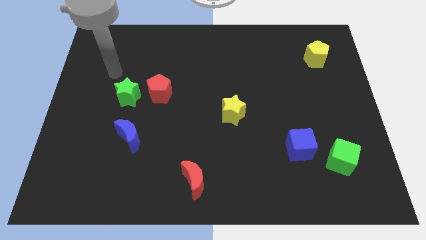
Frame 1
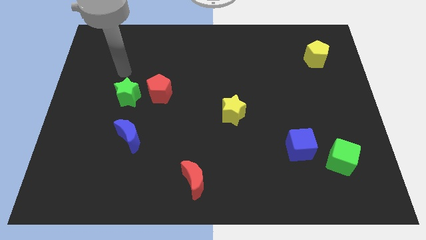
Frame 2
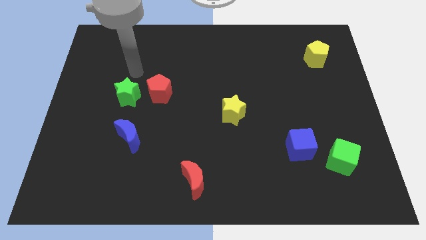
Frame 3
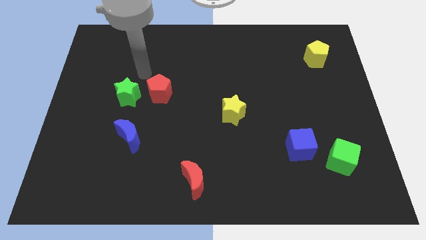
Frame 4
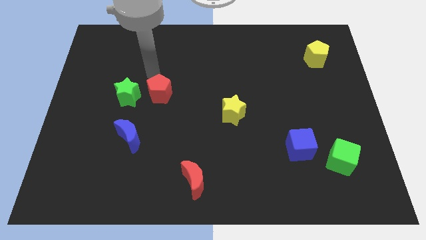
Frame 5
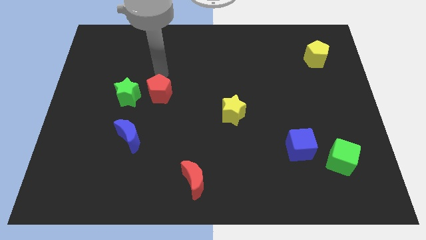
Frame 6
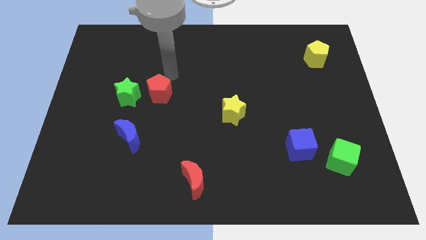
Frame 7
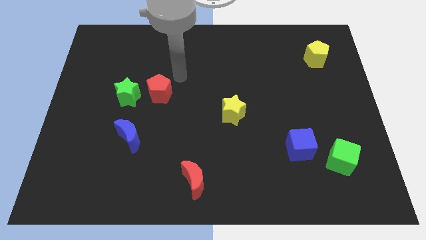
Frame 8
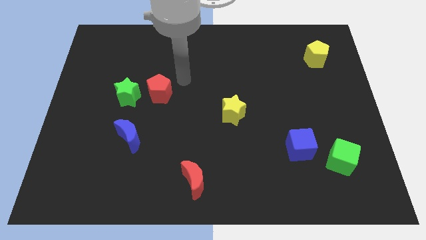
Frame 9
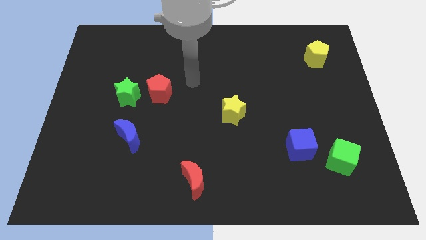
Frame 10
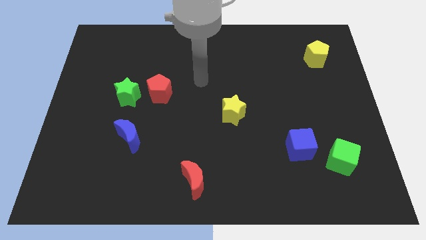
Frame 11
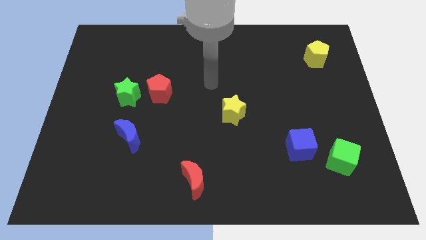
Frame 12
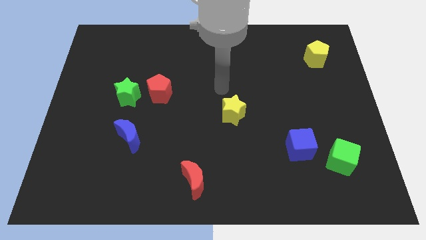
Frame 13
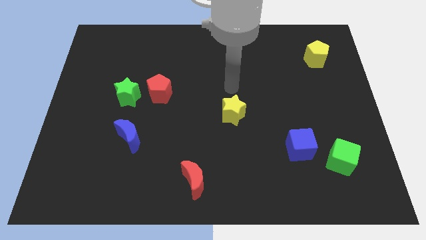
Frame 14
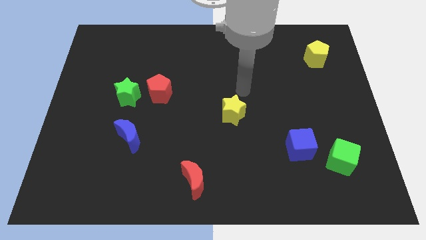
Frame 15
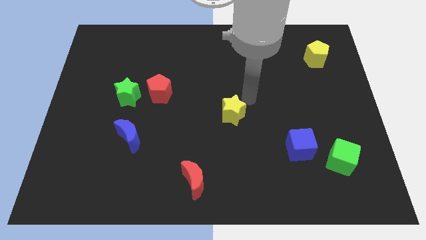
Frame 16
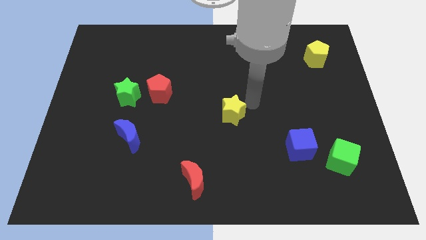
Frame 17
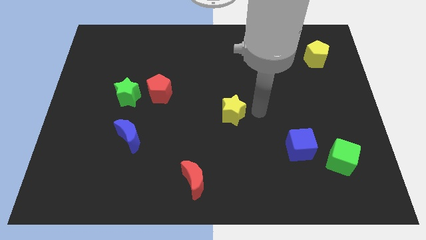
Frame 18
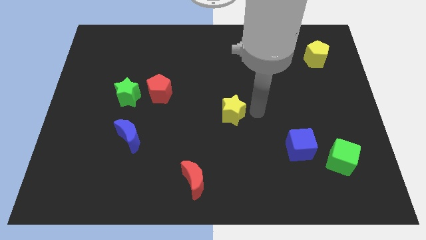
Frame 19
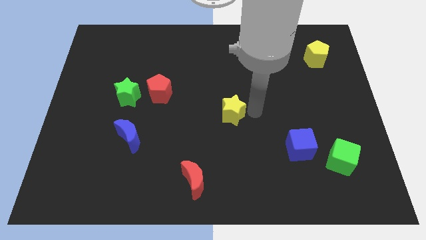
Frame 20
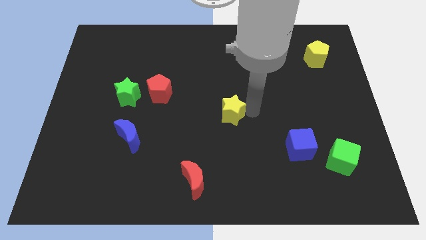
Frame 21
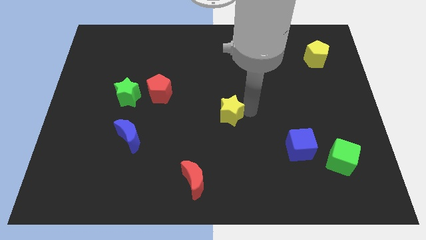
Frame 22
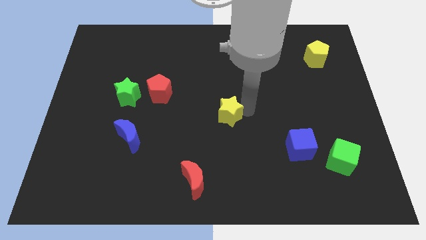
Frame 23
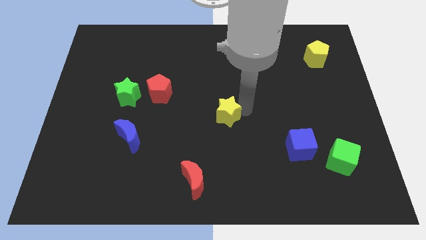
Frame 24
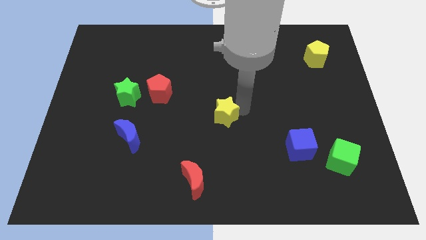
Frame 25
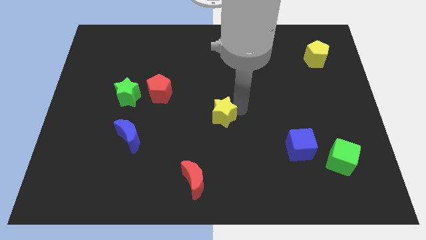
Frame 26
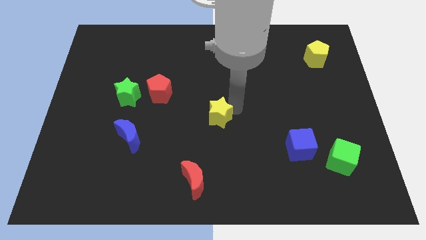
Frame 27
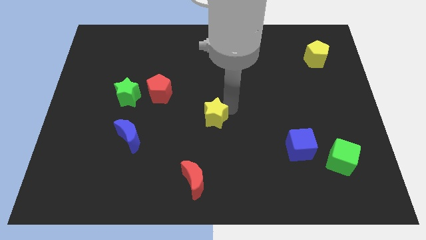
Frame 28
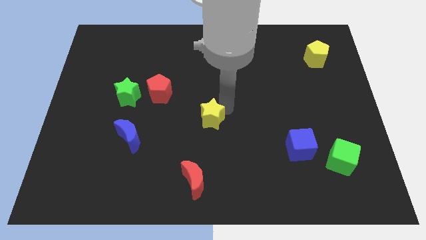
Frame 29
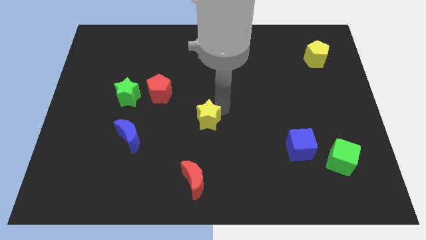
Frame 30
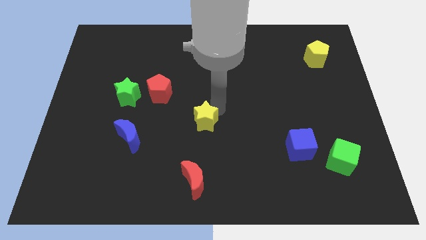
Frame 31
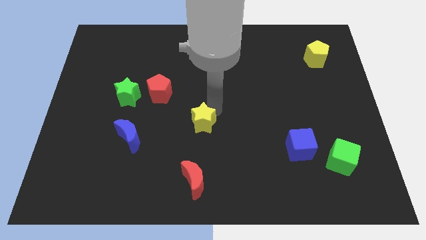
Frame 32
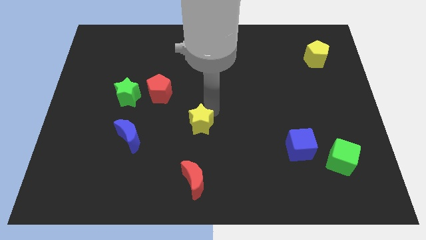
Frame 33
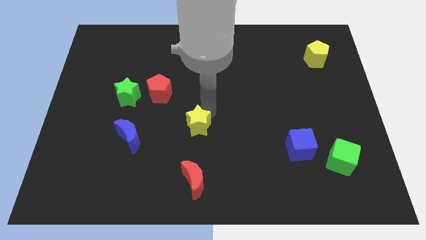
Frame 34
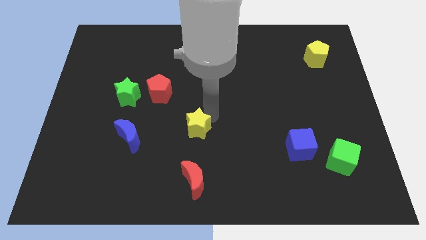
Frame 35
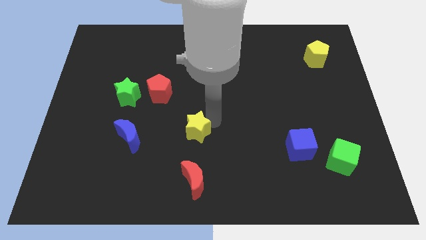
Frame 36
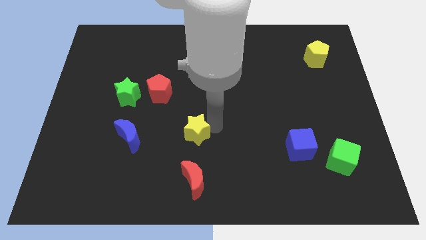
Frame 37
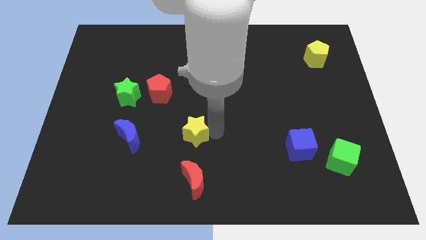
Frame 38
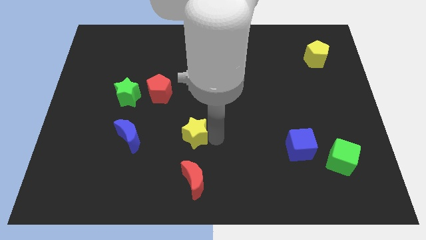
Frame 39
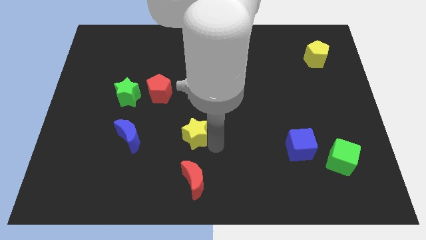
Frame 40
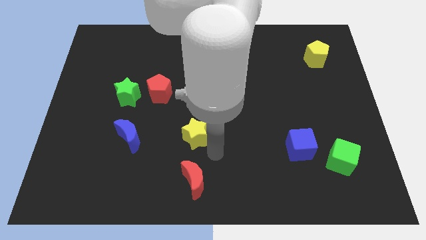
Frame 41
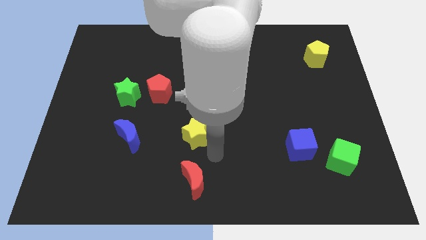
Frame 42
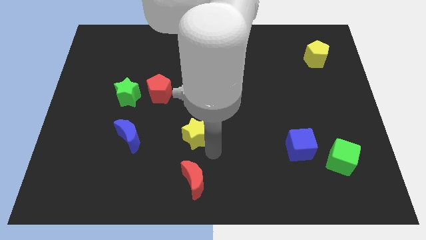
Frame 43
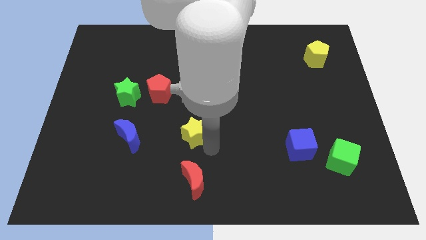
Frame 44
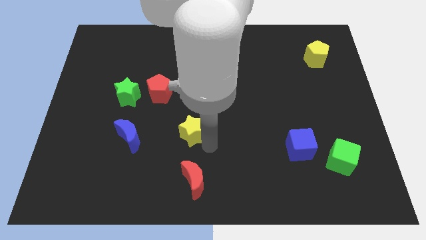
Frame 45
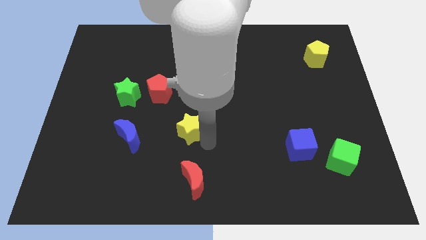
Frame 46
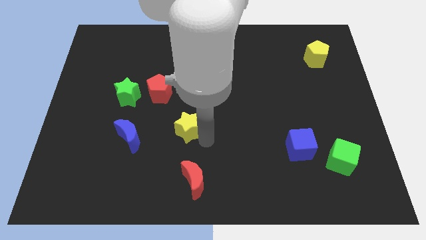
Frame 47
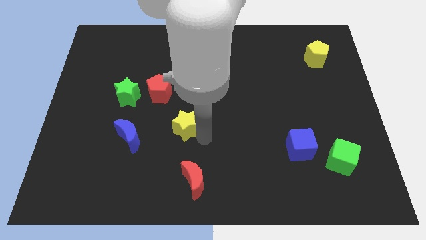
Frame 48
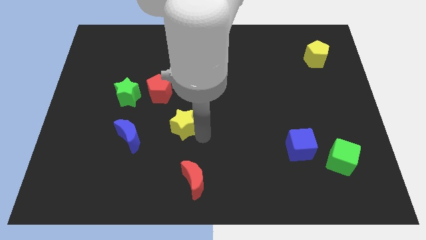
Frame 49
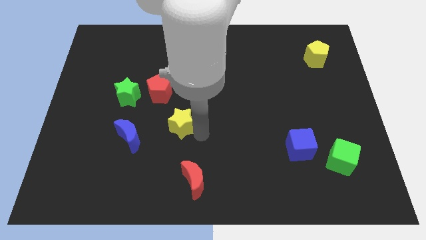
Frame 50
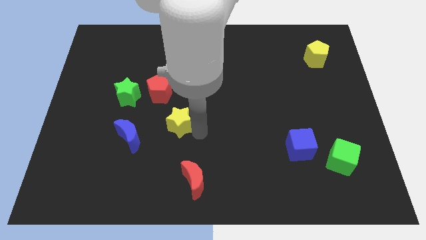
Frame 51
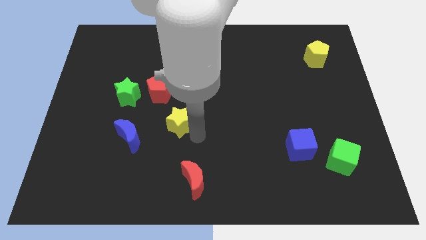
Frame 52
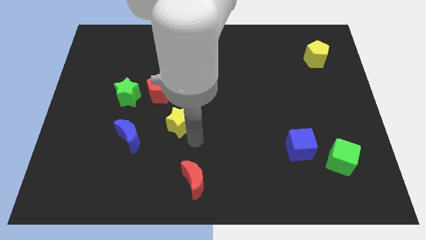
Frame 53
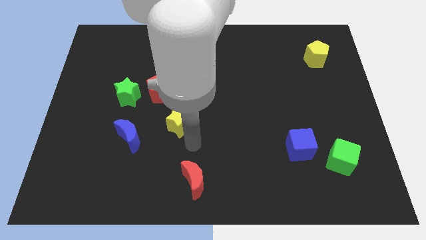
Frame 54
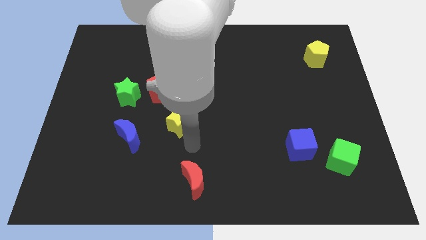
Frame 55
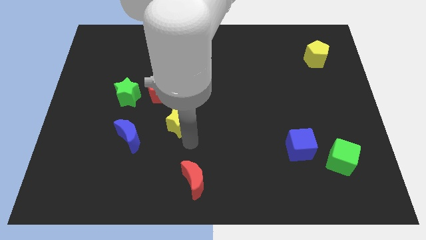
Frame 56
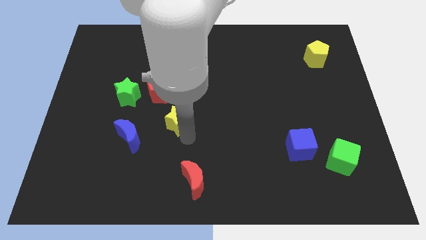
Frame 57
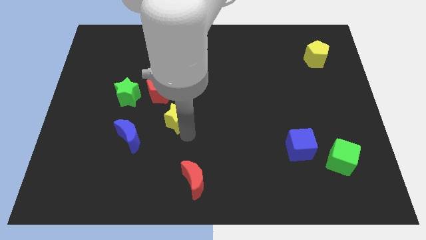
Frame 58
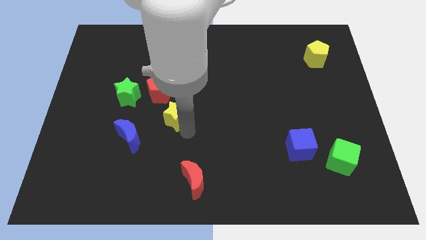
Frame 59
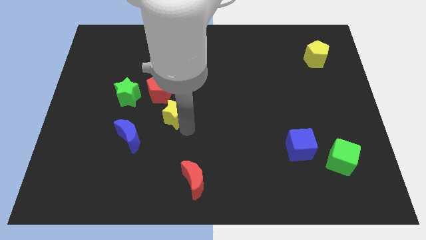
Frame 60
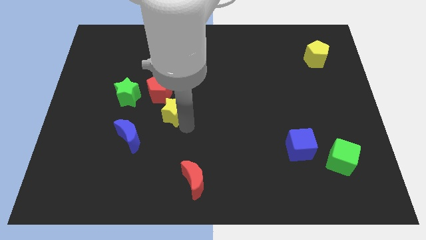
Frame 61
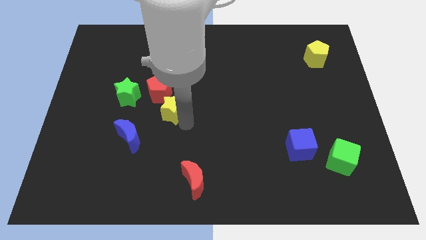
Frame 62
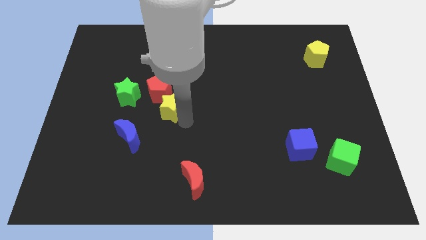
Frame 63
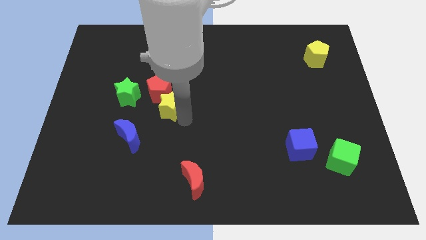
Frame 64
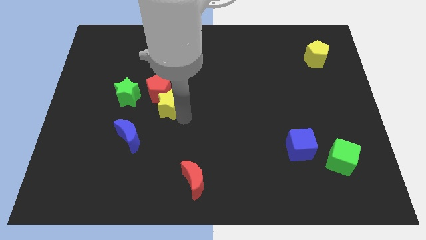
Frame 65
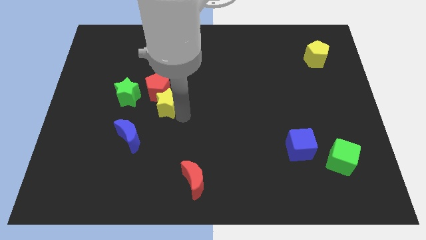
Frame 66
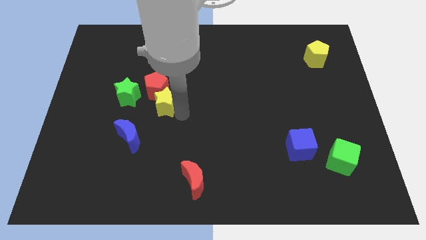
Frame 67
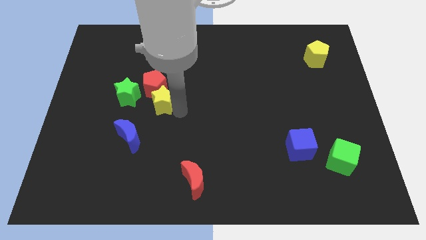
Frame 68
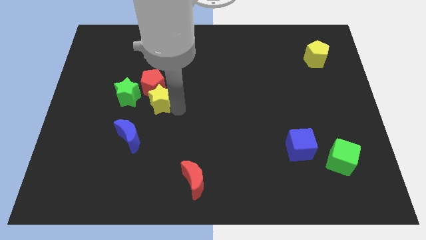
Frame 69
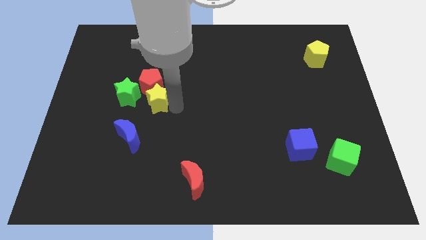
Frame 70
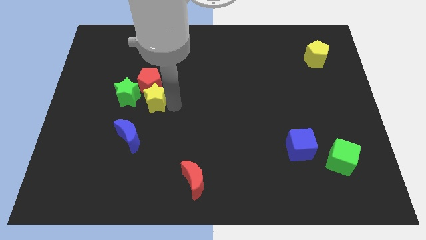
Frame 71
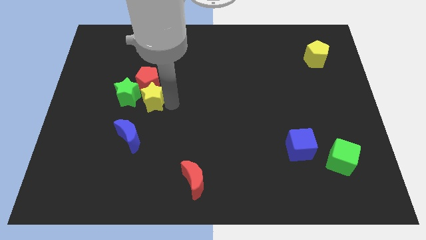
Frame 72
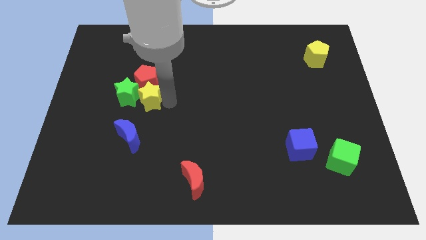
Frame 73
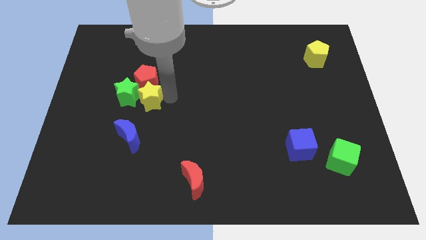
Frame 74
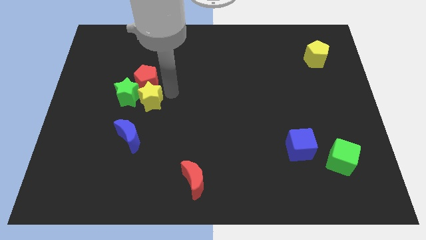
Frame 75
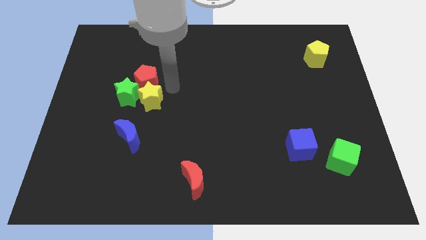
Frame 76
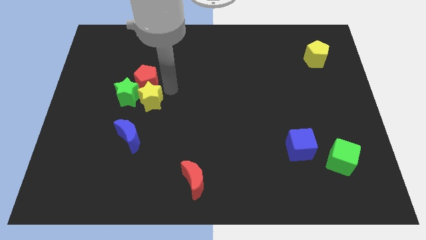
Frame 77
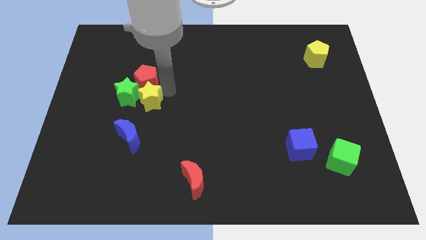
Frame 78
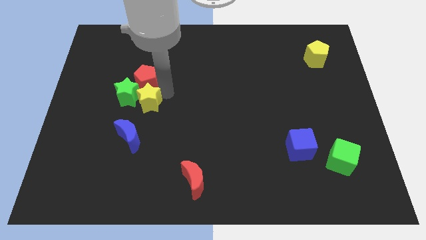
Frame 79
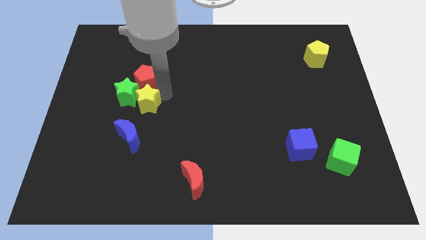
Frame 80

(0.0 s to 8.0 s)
push the yellow star left
